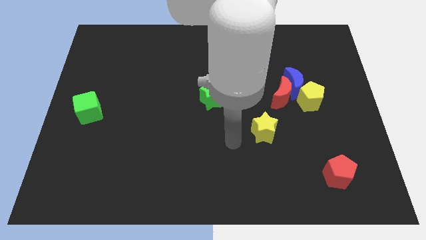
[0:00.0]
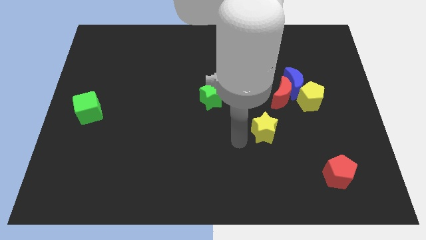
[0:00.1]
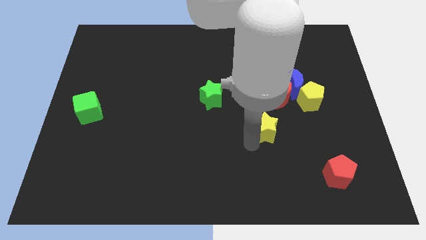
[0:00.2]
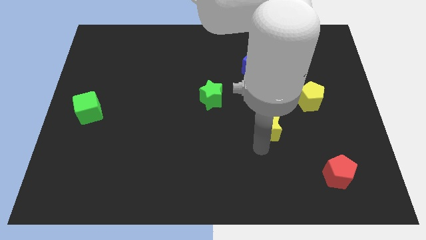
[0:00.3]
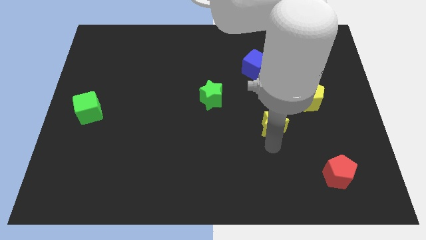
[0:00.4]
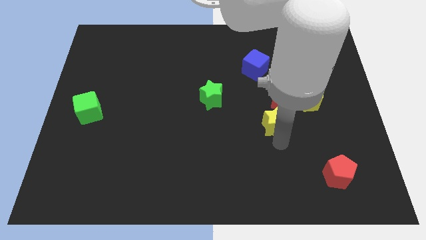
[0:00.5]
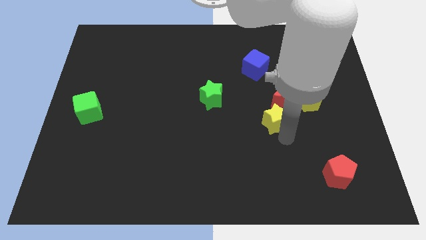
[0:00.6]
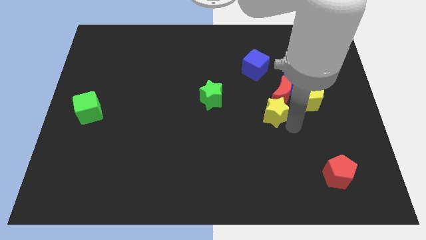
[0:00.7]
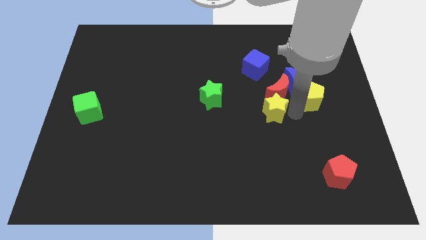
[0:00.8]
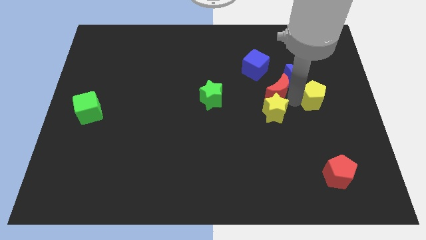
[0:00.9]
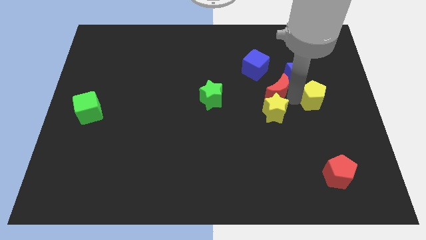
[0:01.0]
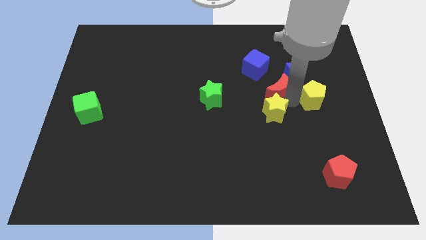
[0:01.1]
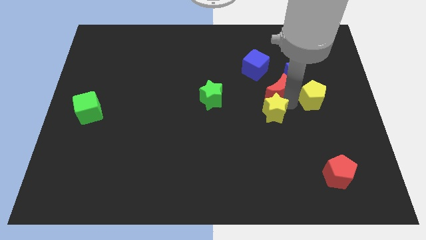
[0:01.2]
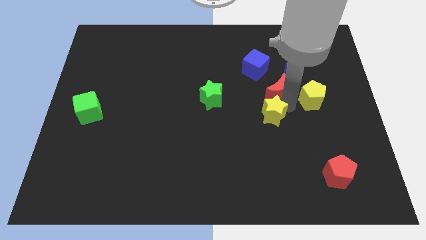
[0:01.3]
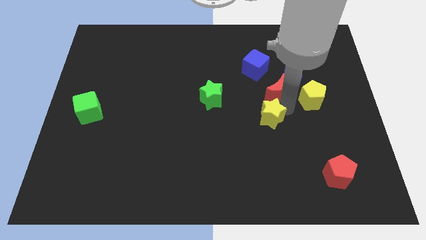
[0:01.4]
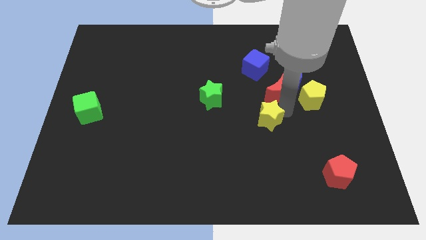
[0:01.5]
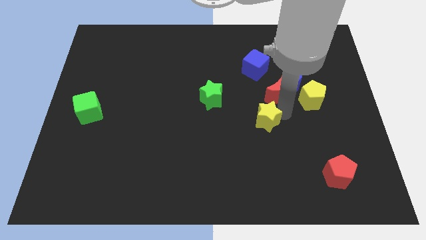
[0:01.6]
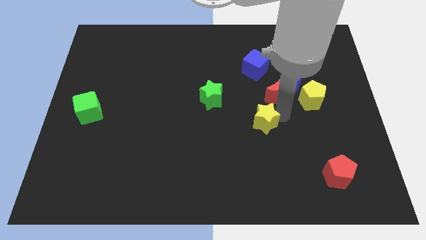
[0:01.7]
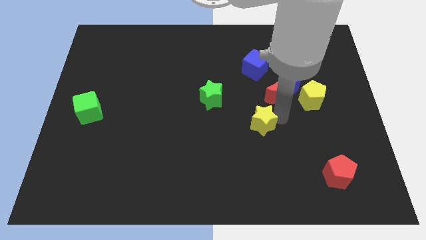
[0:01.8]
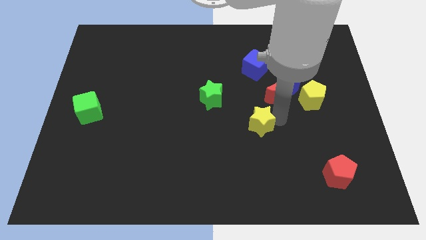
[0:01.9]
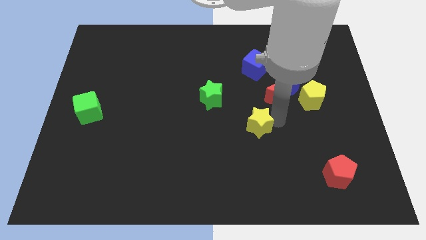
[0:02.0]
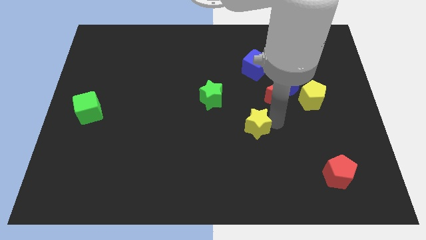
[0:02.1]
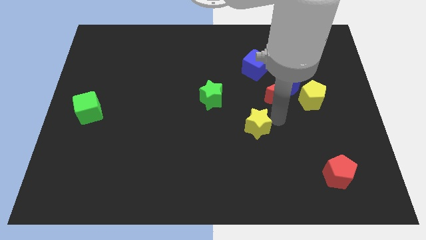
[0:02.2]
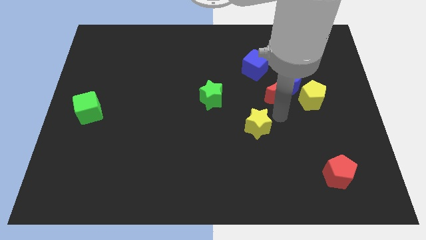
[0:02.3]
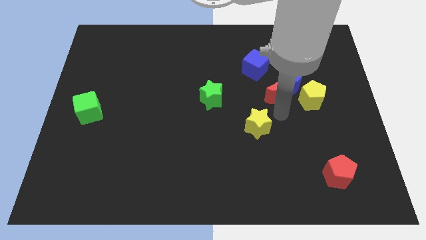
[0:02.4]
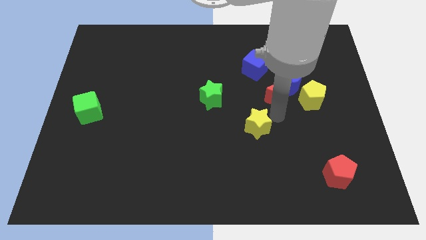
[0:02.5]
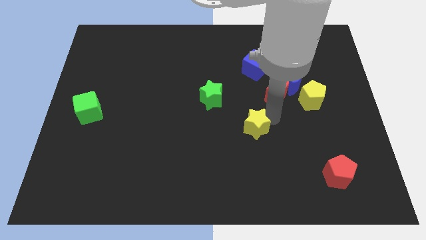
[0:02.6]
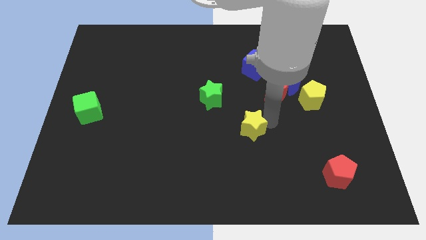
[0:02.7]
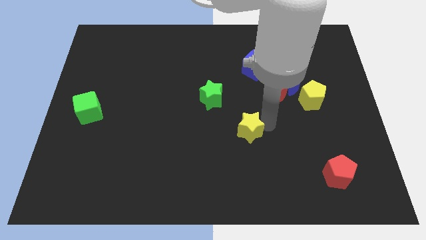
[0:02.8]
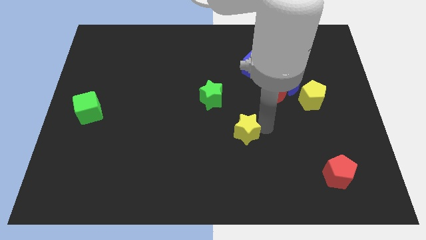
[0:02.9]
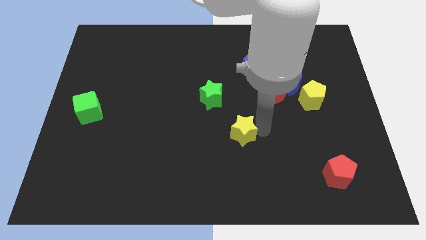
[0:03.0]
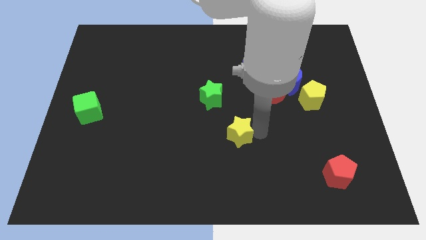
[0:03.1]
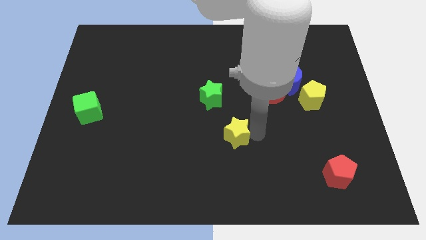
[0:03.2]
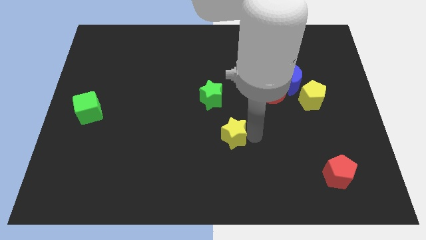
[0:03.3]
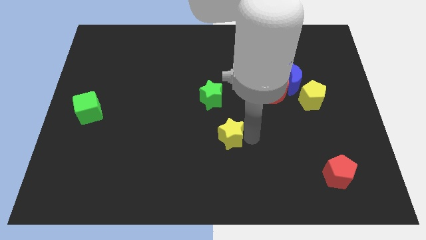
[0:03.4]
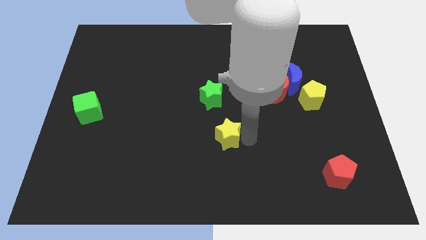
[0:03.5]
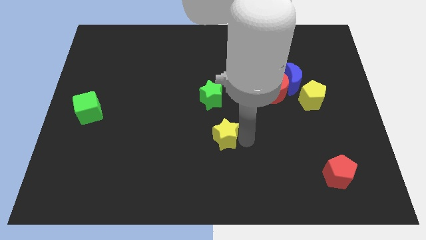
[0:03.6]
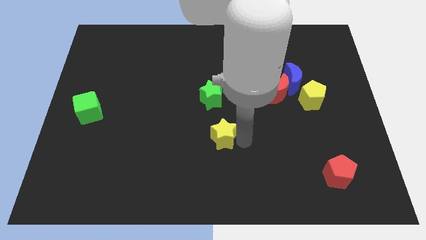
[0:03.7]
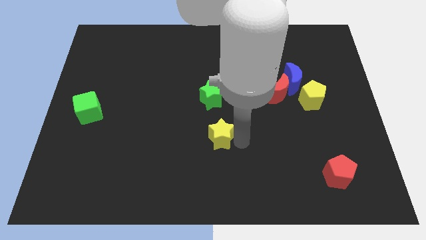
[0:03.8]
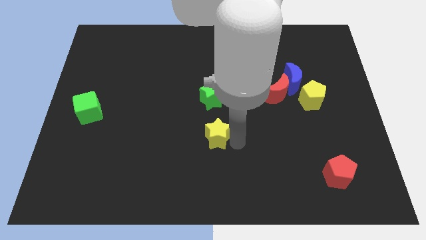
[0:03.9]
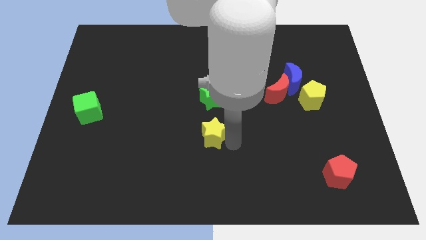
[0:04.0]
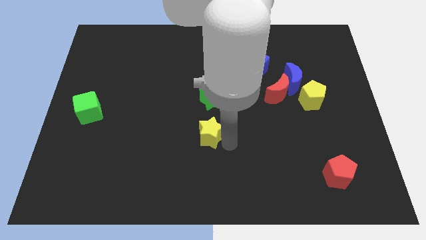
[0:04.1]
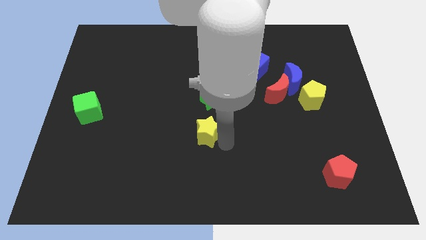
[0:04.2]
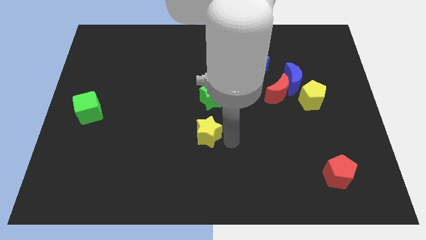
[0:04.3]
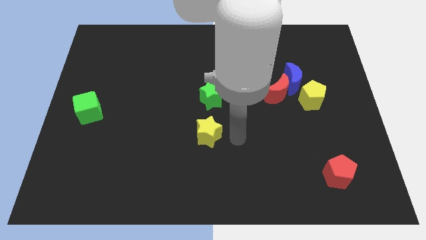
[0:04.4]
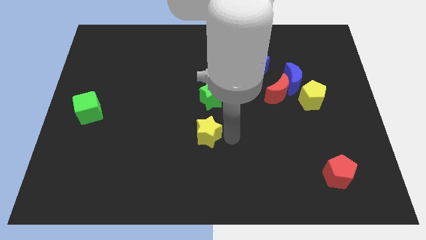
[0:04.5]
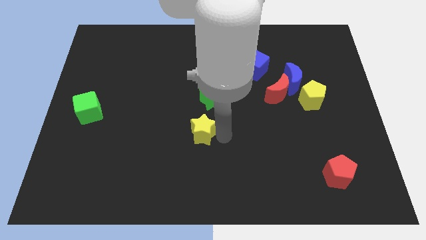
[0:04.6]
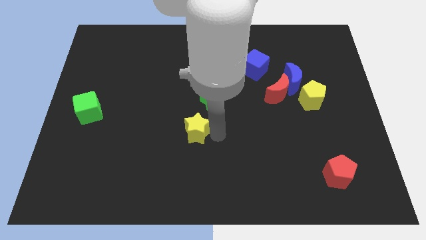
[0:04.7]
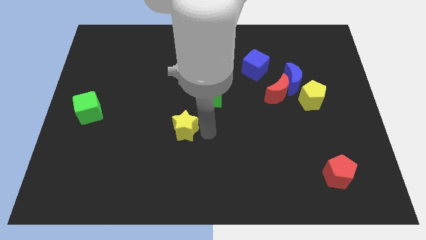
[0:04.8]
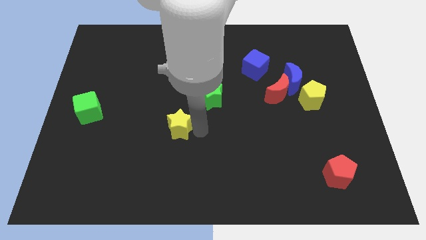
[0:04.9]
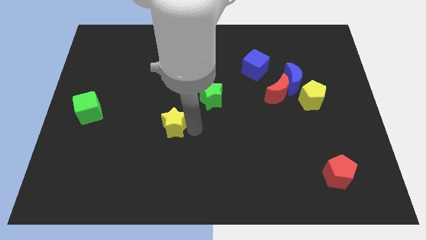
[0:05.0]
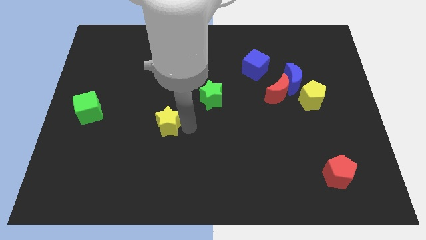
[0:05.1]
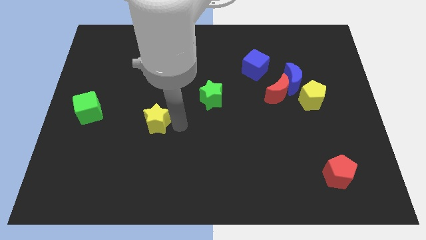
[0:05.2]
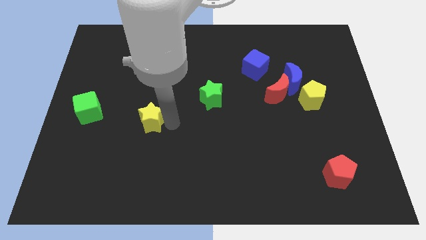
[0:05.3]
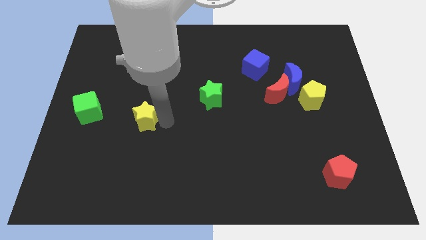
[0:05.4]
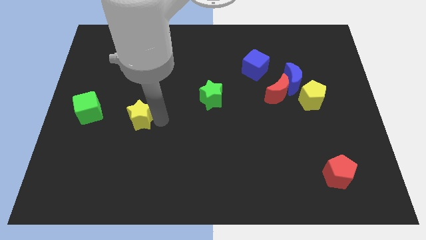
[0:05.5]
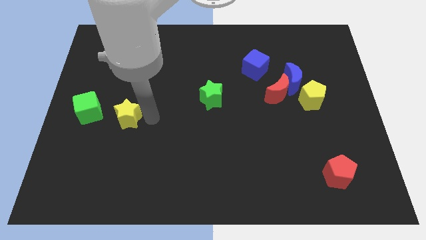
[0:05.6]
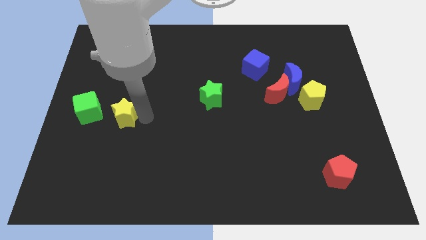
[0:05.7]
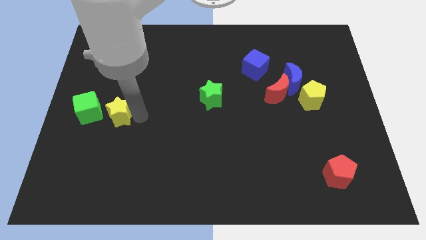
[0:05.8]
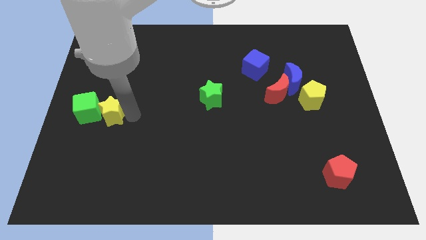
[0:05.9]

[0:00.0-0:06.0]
move the yellow star next to the green cube

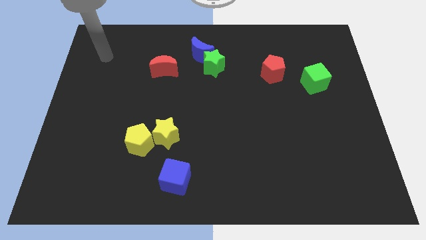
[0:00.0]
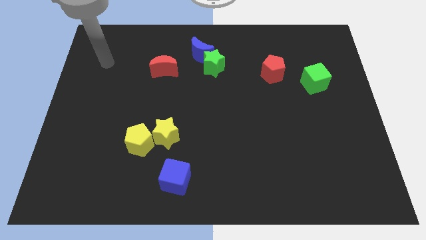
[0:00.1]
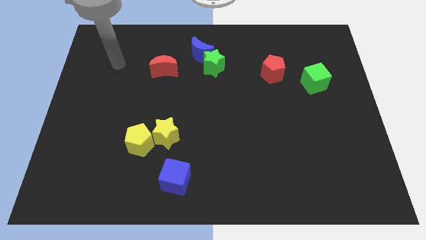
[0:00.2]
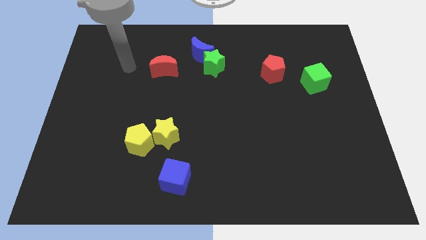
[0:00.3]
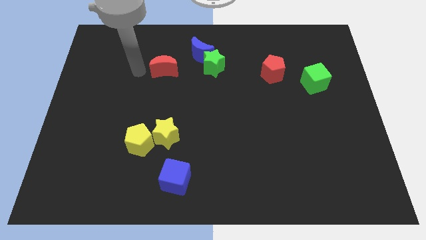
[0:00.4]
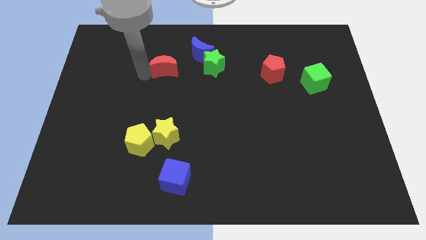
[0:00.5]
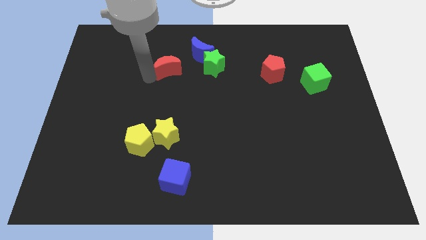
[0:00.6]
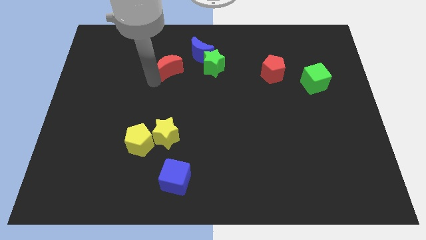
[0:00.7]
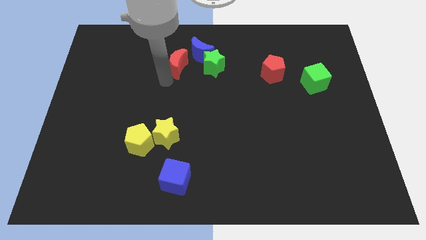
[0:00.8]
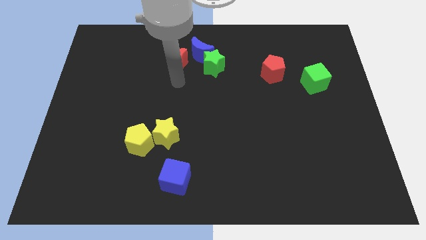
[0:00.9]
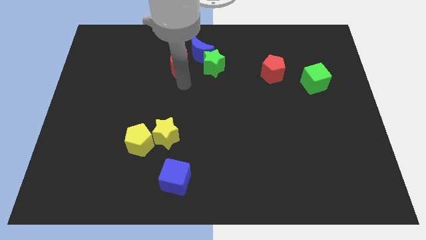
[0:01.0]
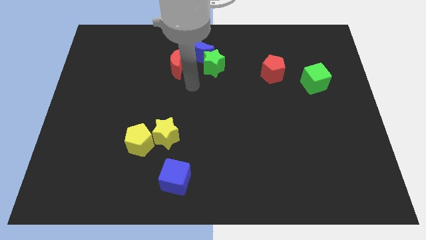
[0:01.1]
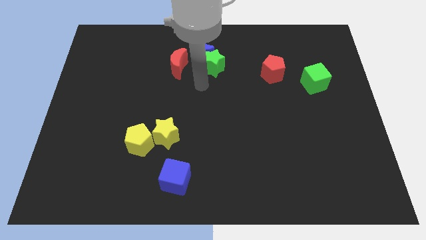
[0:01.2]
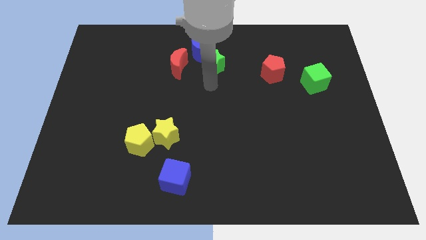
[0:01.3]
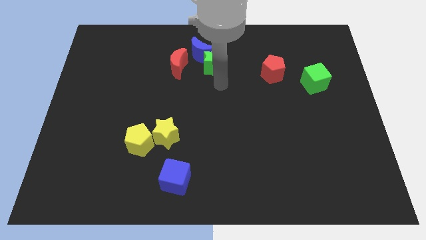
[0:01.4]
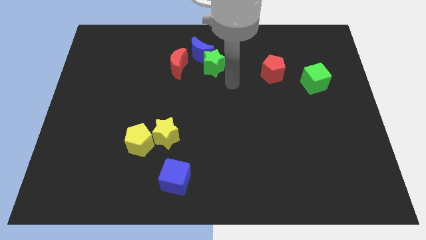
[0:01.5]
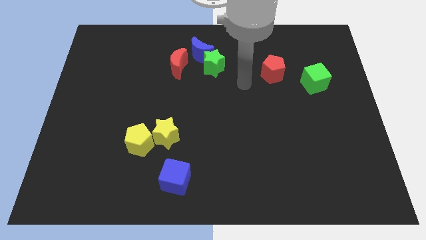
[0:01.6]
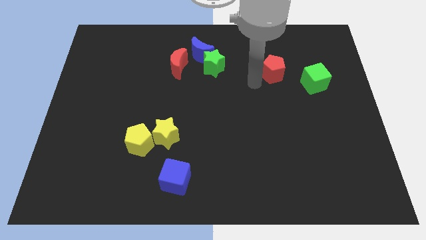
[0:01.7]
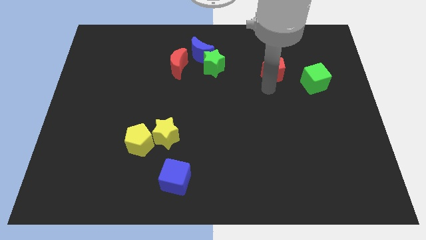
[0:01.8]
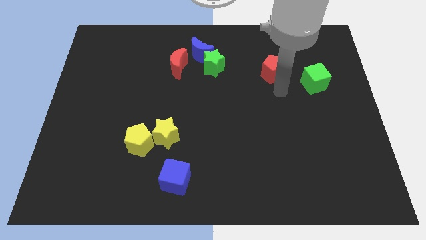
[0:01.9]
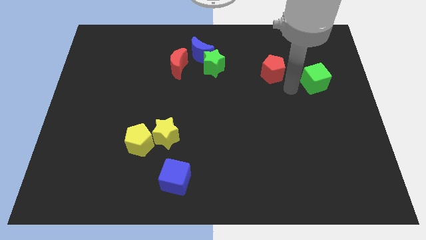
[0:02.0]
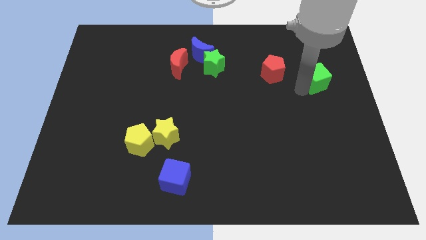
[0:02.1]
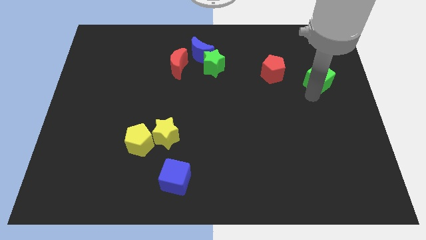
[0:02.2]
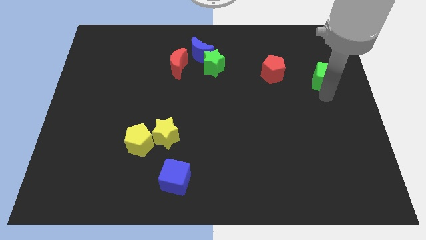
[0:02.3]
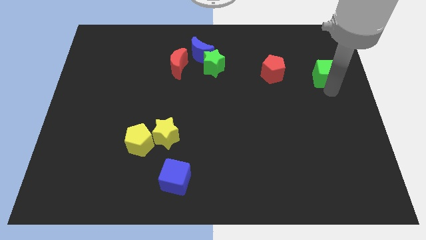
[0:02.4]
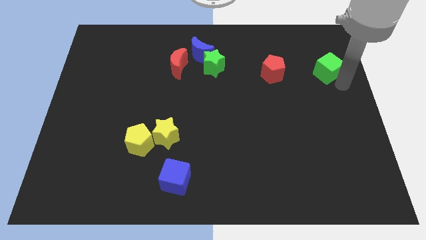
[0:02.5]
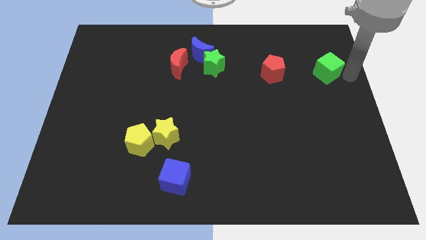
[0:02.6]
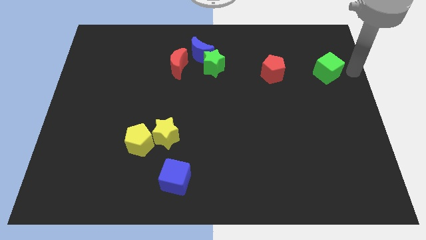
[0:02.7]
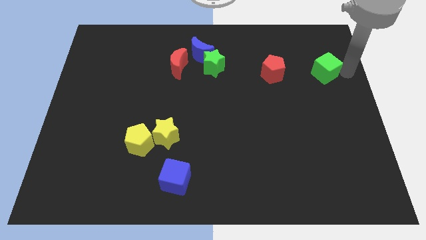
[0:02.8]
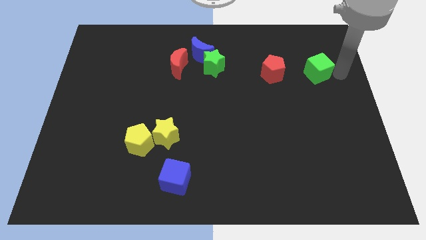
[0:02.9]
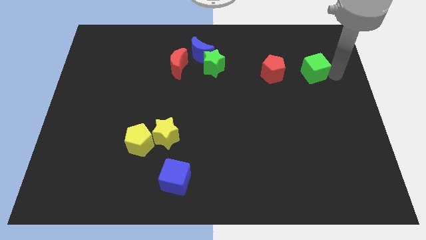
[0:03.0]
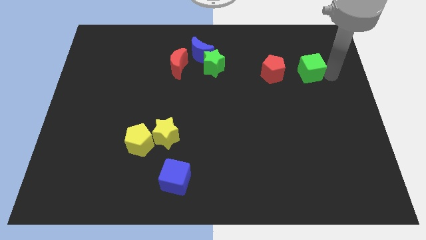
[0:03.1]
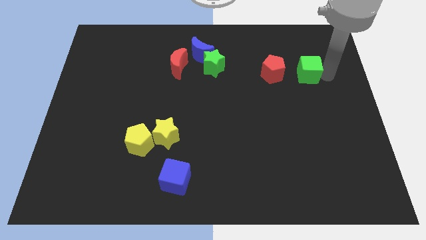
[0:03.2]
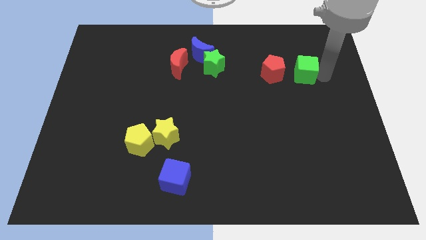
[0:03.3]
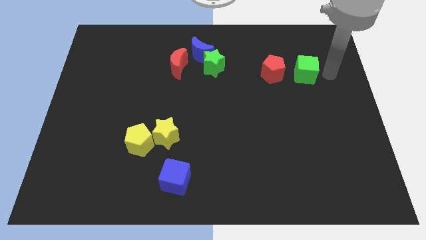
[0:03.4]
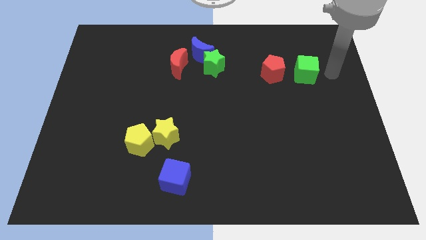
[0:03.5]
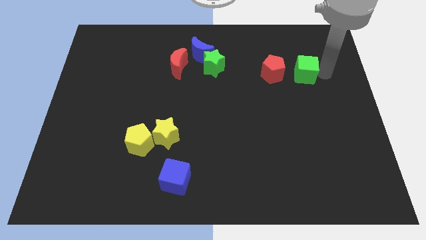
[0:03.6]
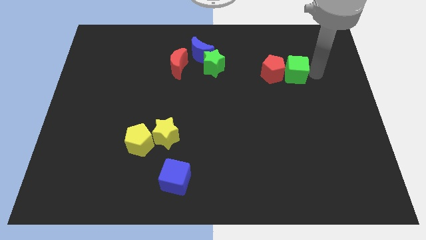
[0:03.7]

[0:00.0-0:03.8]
move the green cube towards the red pentagon
